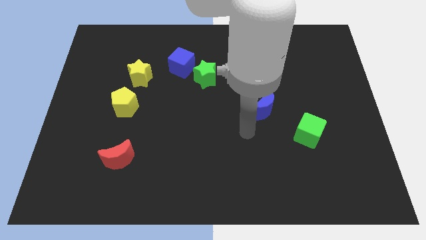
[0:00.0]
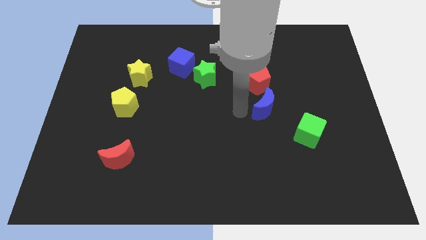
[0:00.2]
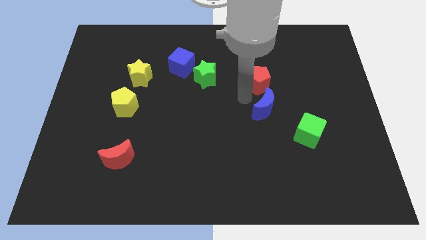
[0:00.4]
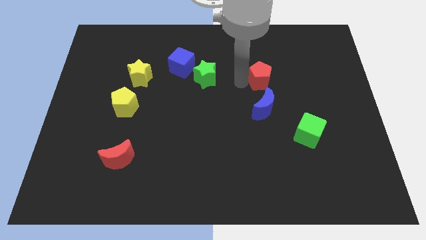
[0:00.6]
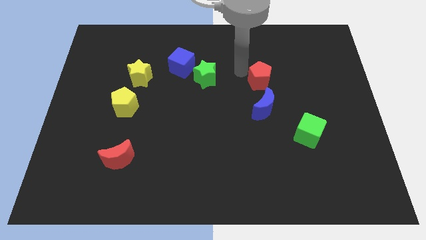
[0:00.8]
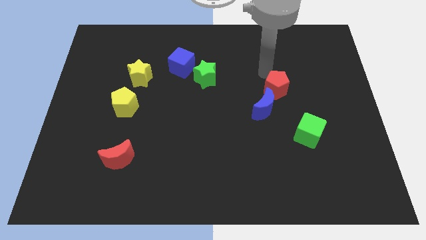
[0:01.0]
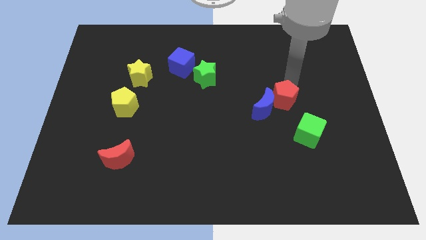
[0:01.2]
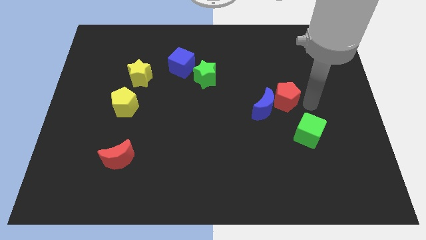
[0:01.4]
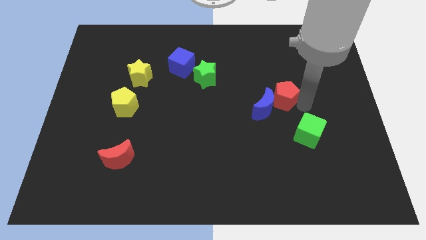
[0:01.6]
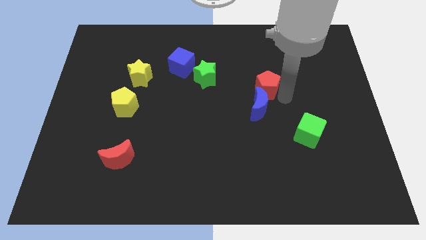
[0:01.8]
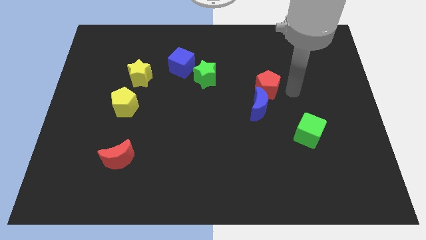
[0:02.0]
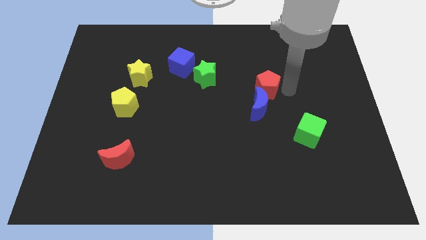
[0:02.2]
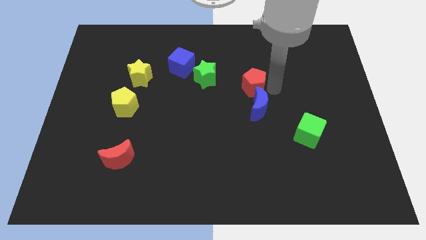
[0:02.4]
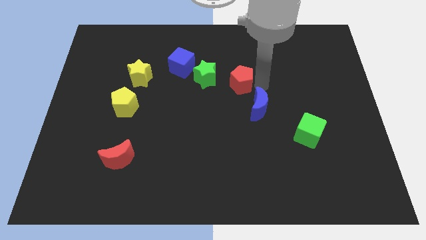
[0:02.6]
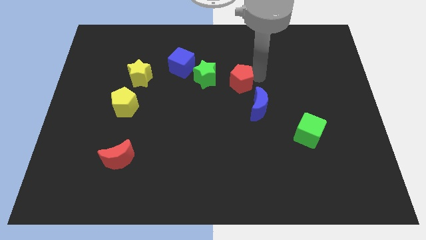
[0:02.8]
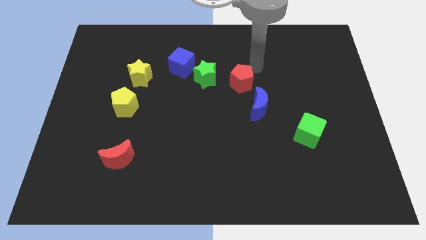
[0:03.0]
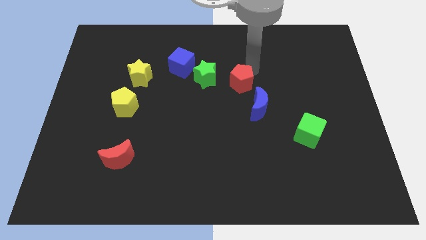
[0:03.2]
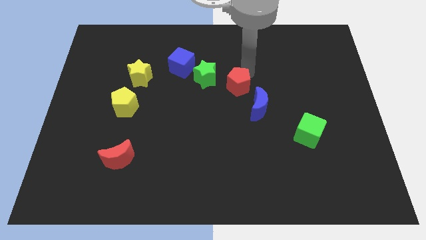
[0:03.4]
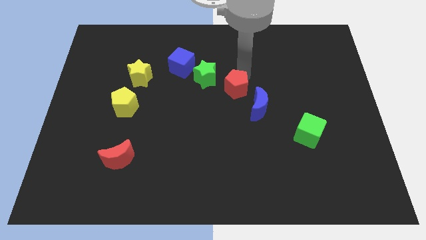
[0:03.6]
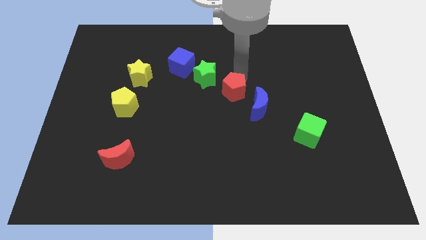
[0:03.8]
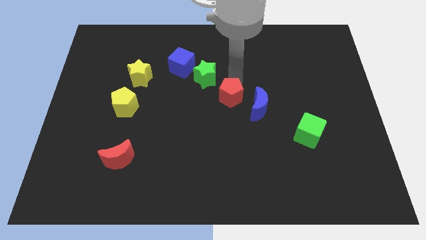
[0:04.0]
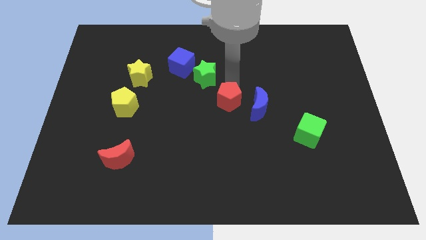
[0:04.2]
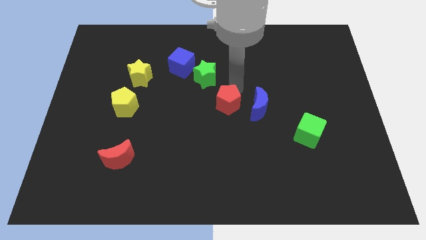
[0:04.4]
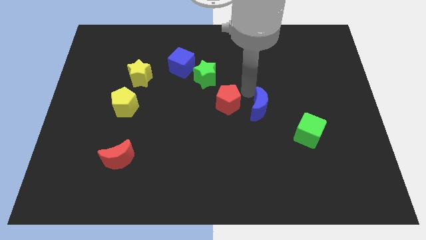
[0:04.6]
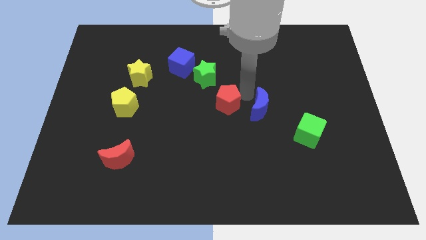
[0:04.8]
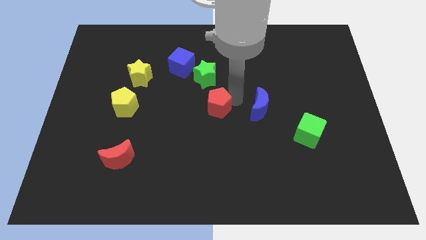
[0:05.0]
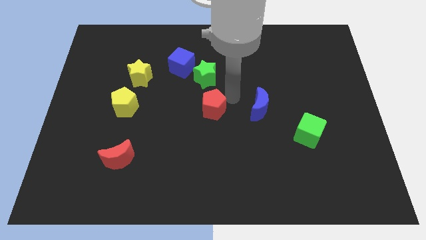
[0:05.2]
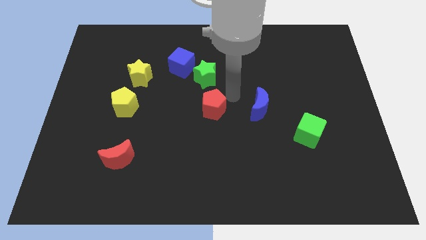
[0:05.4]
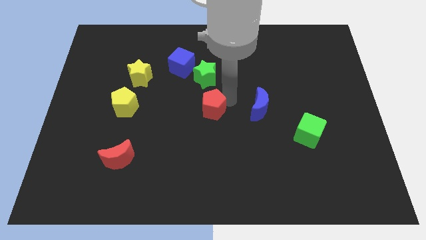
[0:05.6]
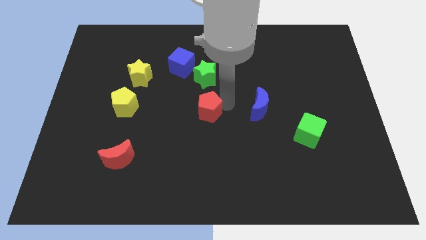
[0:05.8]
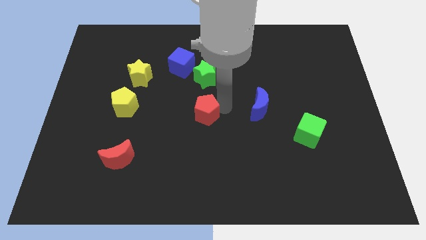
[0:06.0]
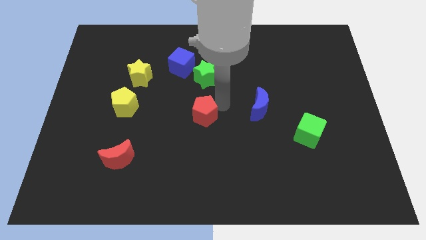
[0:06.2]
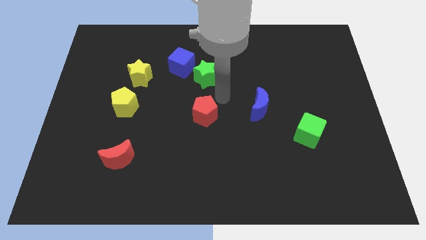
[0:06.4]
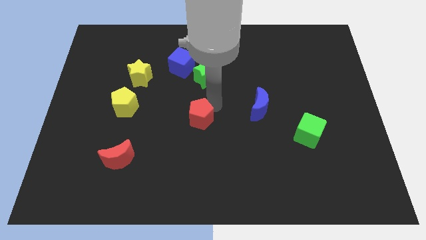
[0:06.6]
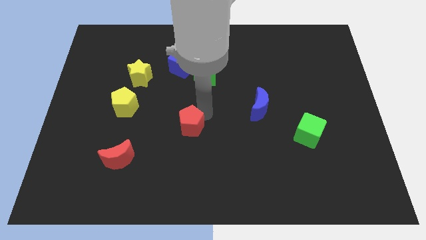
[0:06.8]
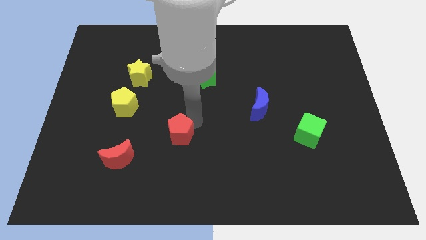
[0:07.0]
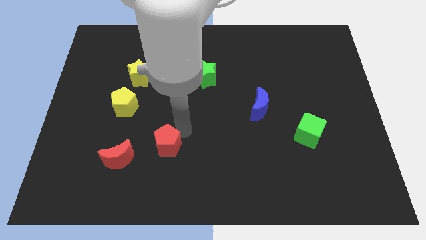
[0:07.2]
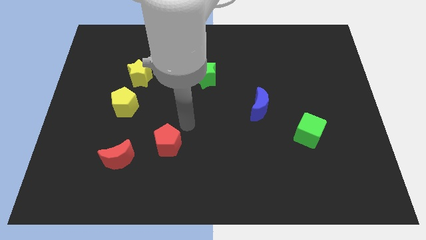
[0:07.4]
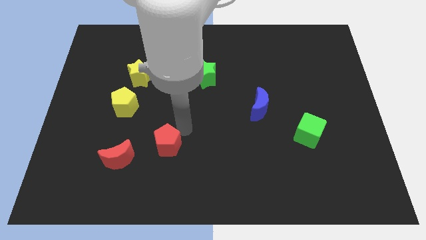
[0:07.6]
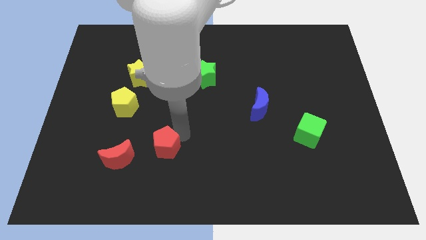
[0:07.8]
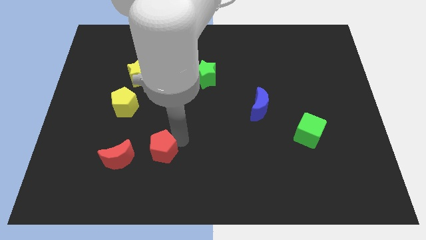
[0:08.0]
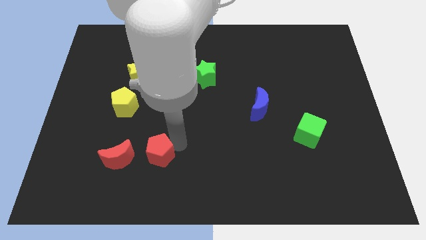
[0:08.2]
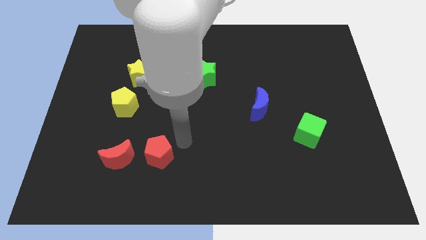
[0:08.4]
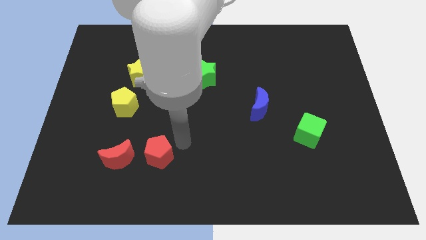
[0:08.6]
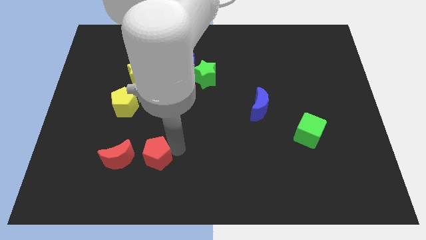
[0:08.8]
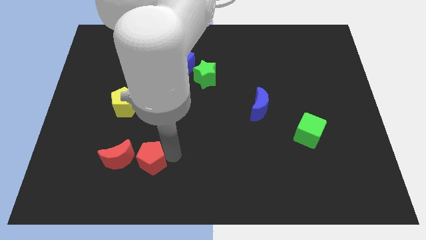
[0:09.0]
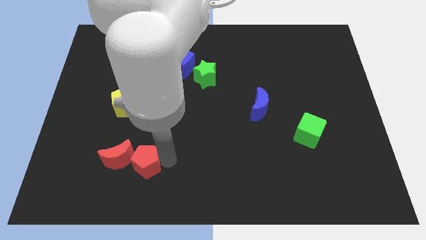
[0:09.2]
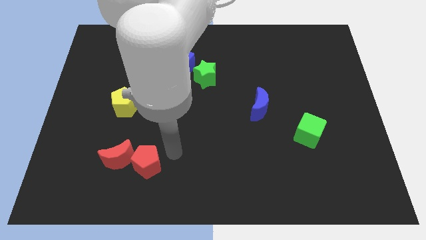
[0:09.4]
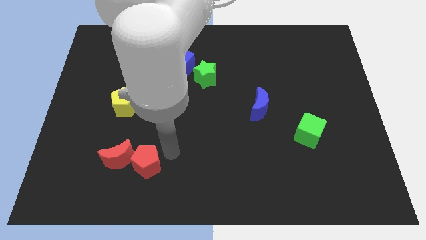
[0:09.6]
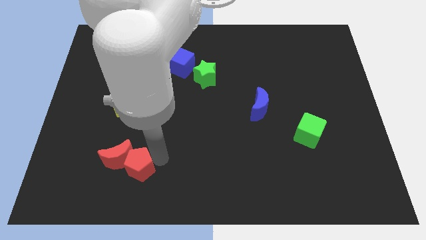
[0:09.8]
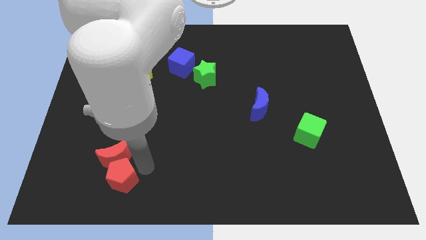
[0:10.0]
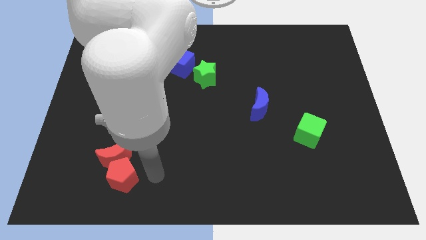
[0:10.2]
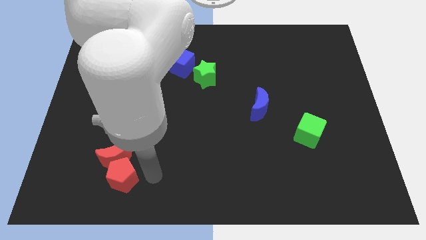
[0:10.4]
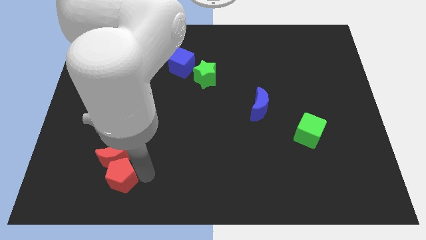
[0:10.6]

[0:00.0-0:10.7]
slide the red pentagon to the bottom left side of the red moon

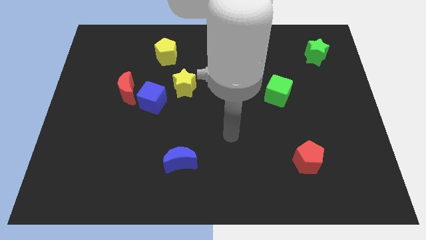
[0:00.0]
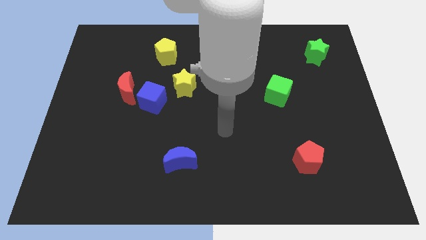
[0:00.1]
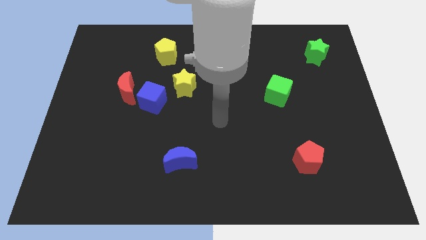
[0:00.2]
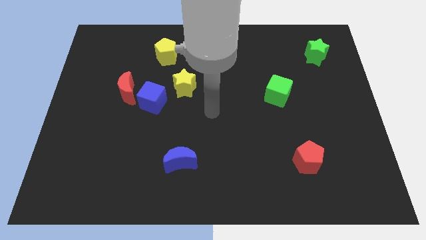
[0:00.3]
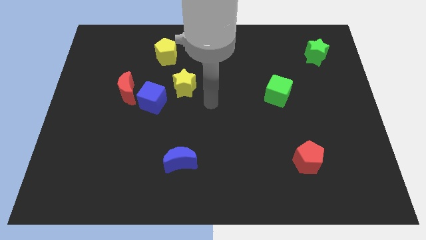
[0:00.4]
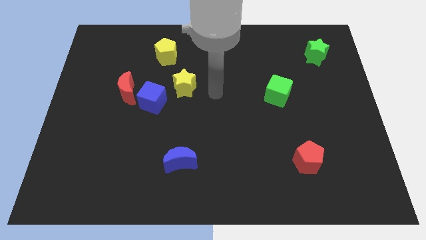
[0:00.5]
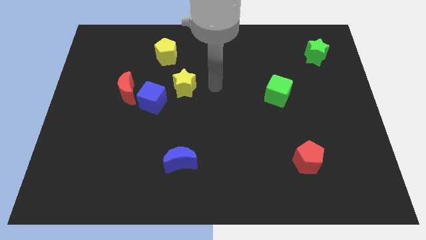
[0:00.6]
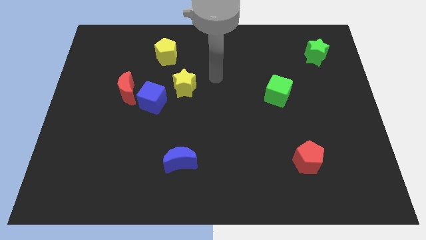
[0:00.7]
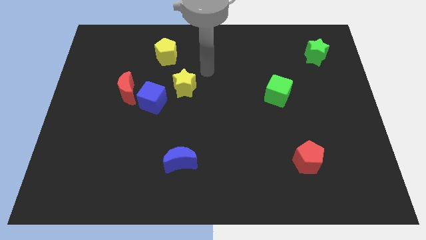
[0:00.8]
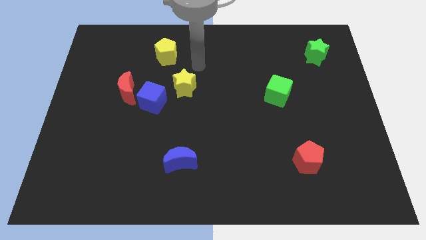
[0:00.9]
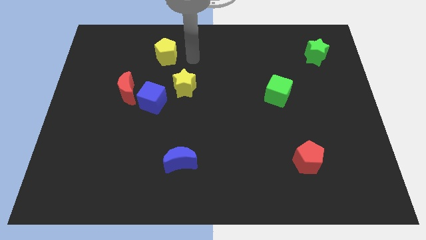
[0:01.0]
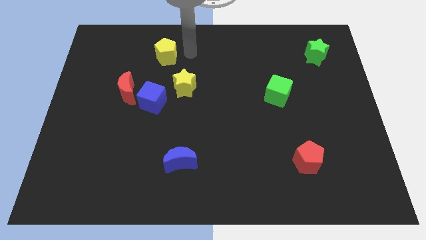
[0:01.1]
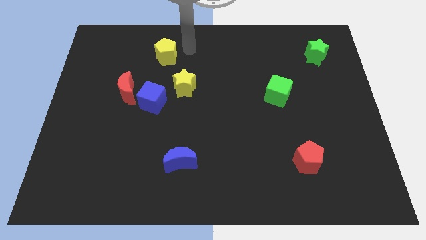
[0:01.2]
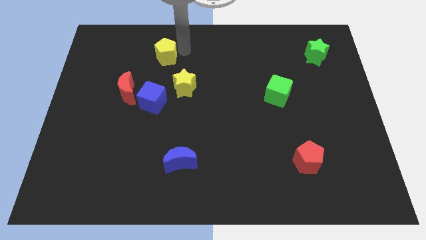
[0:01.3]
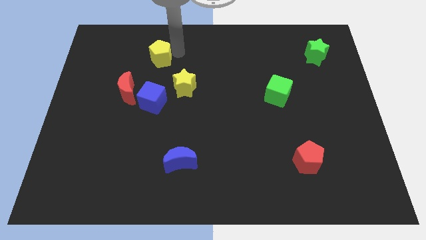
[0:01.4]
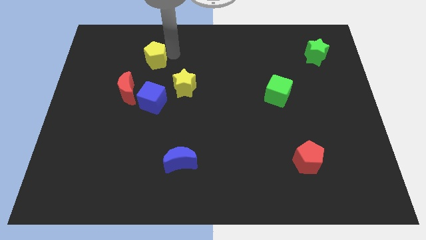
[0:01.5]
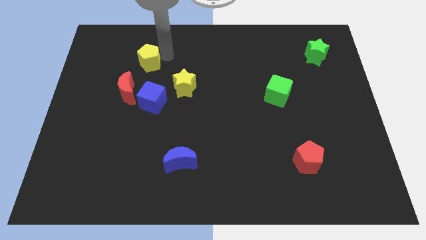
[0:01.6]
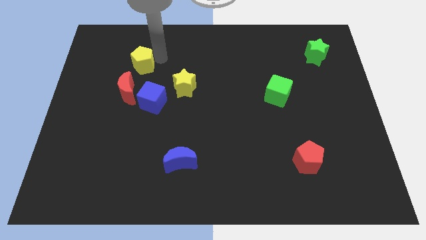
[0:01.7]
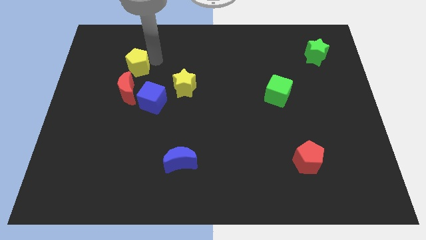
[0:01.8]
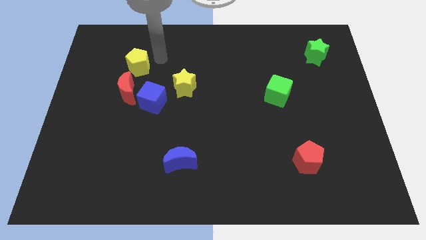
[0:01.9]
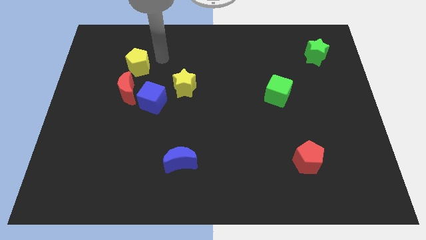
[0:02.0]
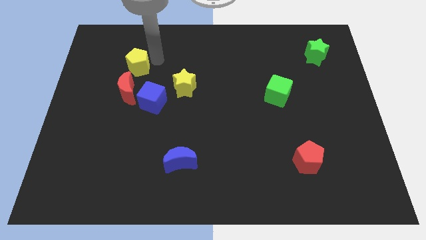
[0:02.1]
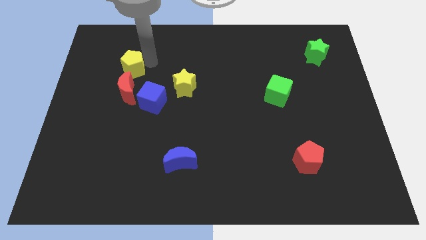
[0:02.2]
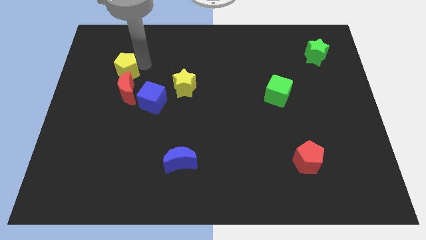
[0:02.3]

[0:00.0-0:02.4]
put the yellow pentagon to the top left side of the red moon
